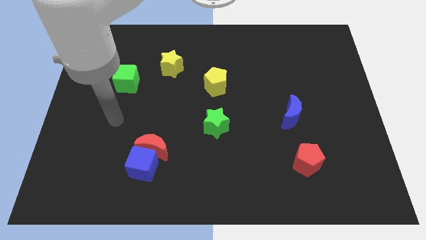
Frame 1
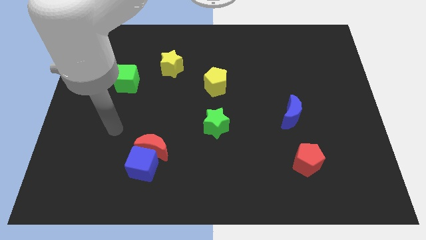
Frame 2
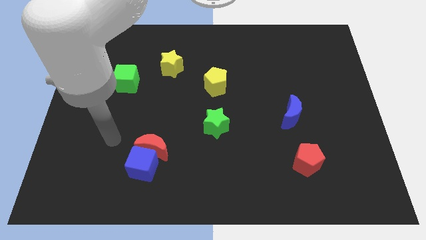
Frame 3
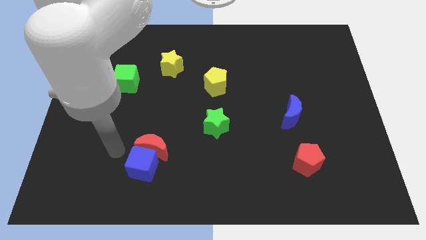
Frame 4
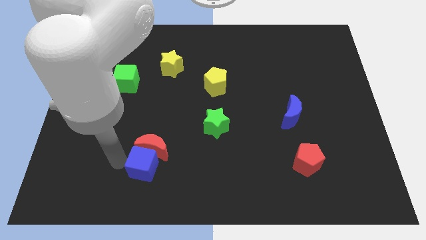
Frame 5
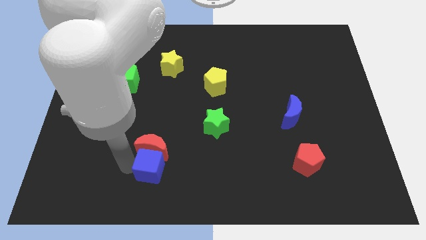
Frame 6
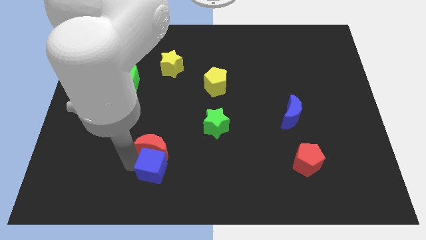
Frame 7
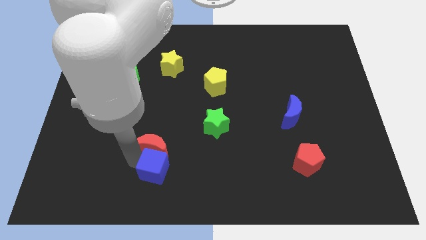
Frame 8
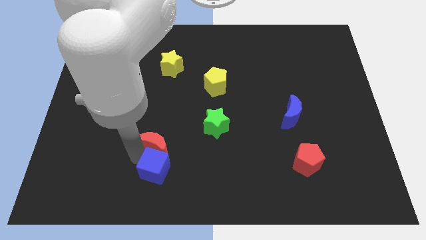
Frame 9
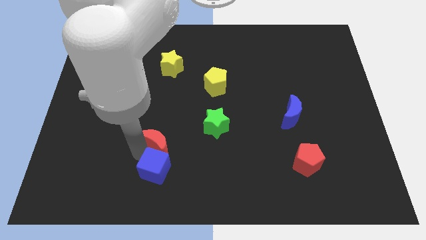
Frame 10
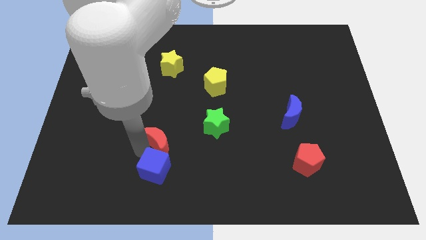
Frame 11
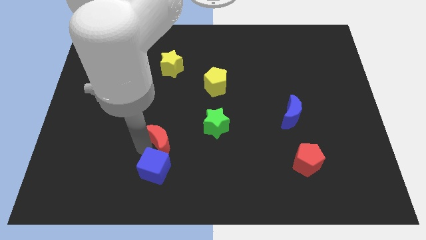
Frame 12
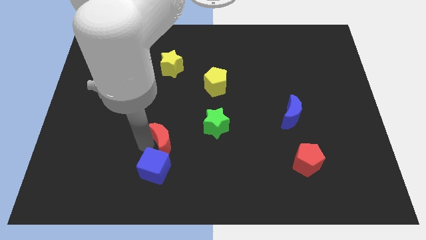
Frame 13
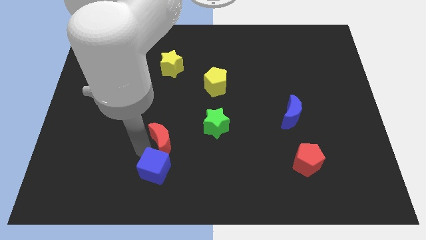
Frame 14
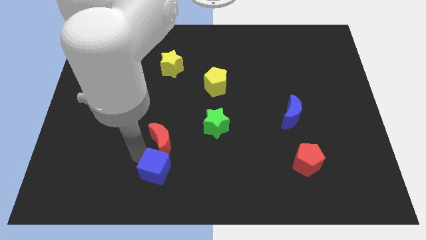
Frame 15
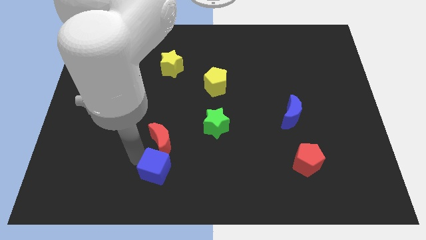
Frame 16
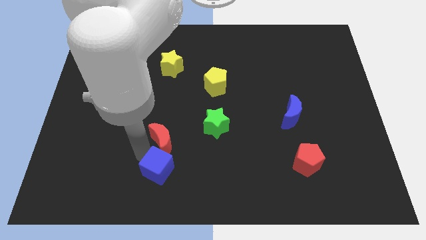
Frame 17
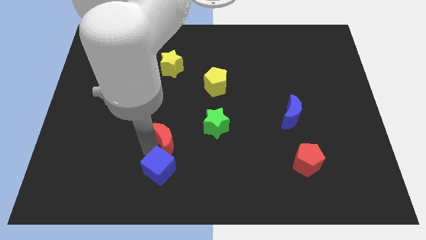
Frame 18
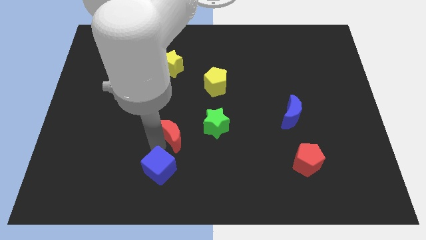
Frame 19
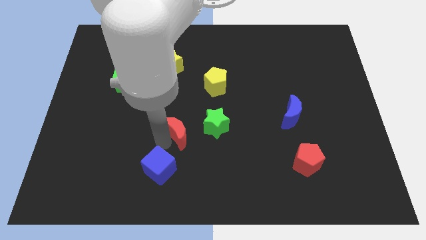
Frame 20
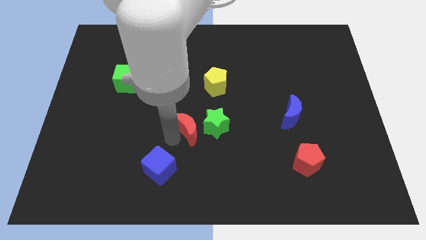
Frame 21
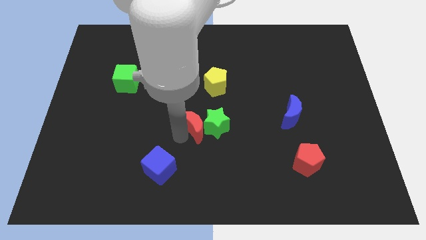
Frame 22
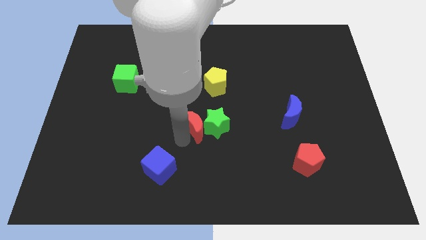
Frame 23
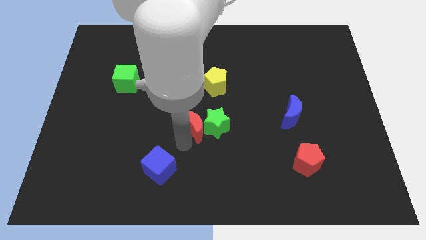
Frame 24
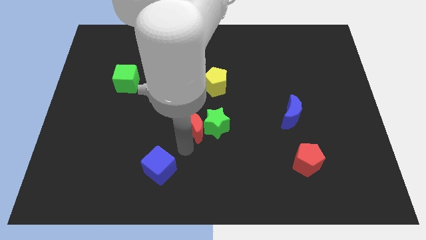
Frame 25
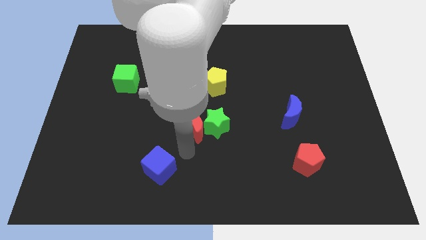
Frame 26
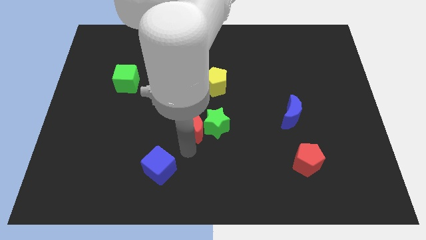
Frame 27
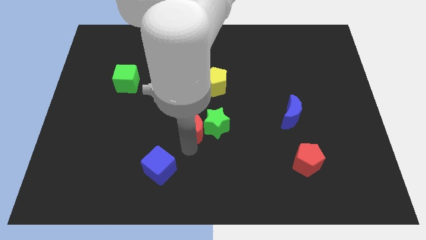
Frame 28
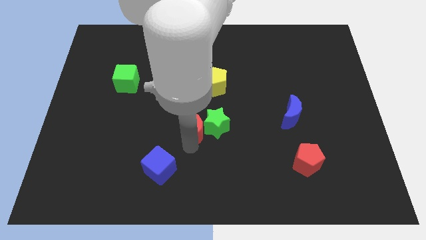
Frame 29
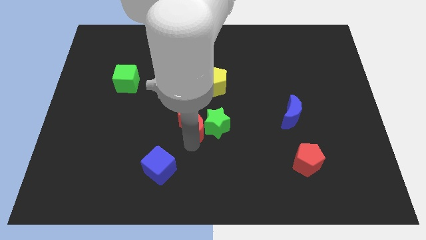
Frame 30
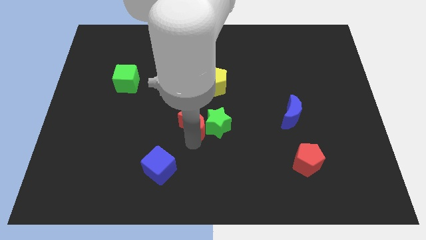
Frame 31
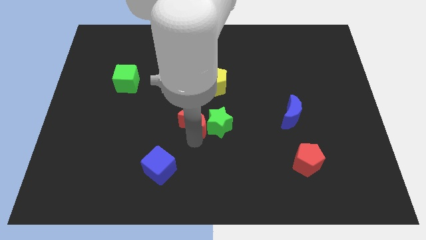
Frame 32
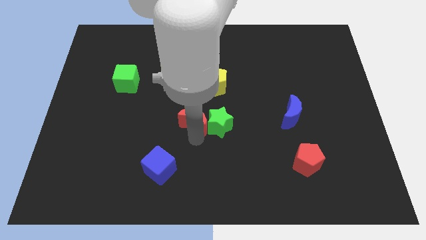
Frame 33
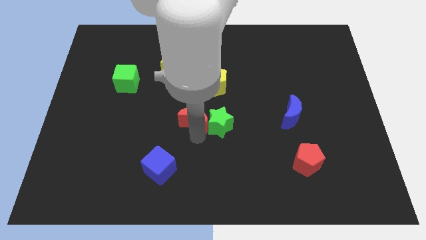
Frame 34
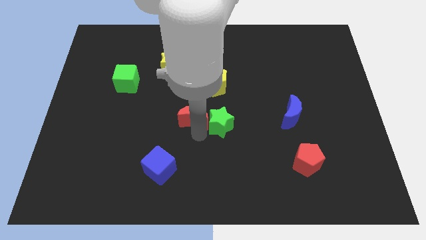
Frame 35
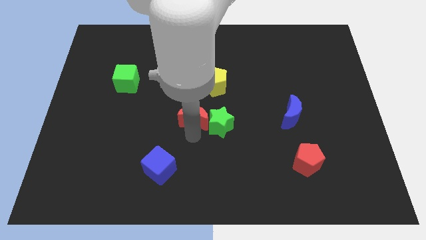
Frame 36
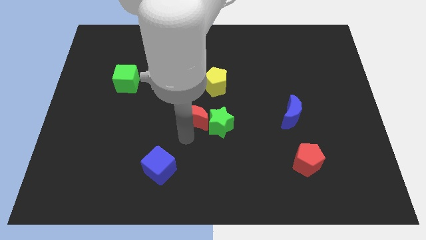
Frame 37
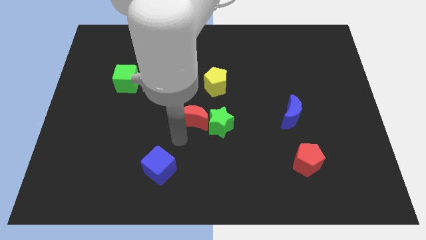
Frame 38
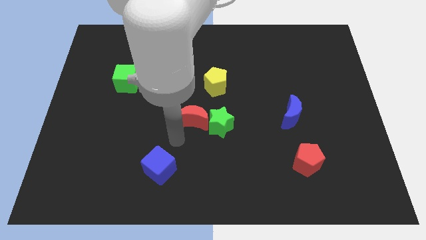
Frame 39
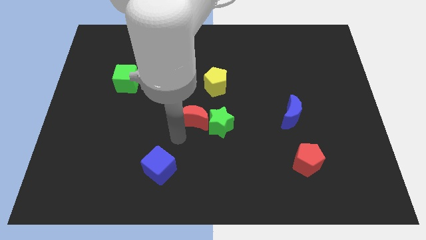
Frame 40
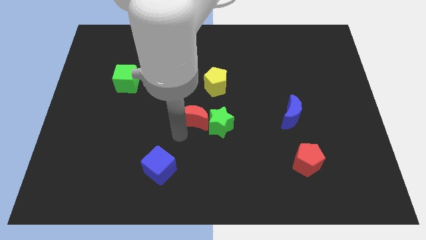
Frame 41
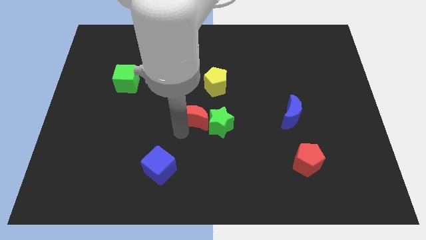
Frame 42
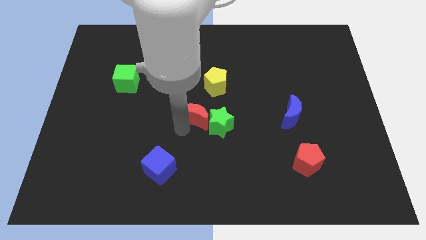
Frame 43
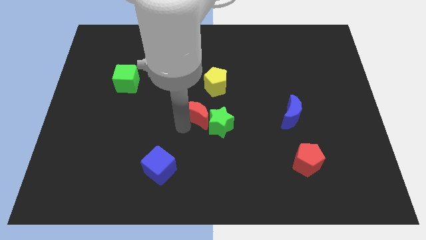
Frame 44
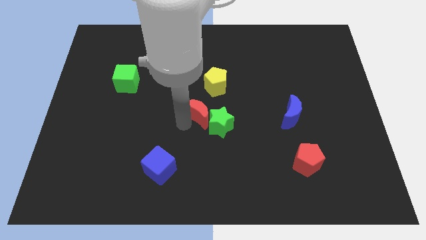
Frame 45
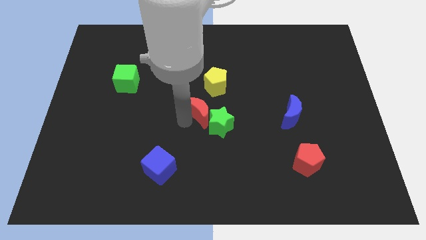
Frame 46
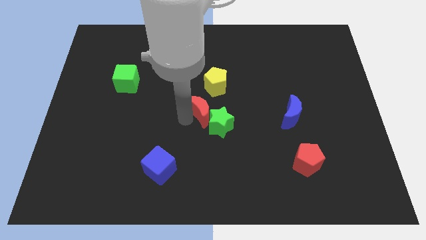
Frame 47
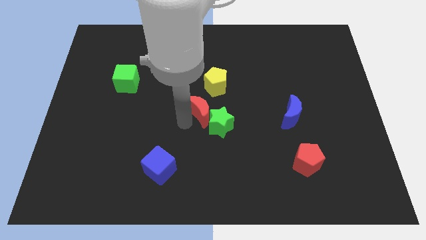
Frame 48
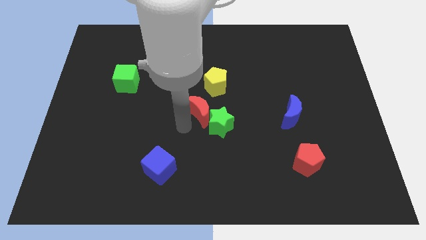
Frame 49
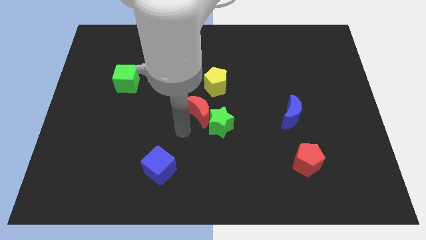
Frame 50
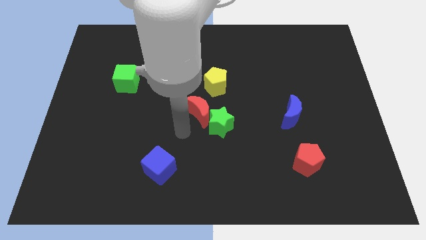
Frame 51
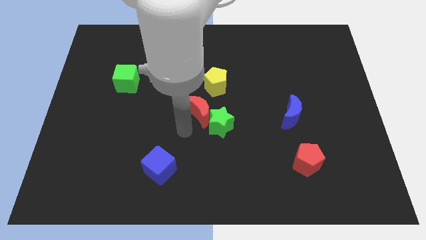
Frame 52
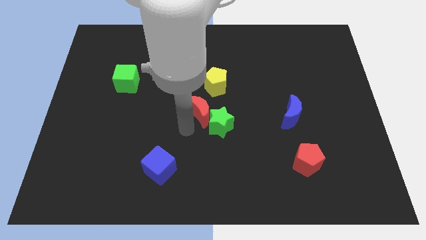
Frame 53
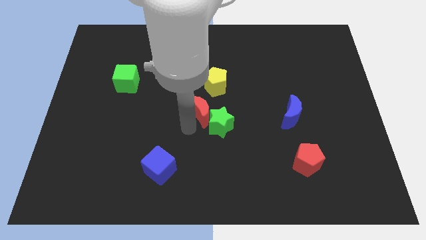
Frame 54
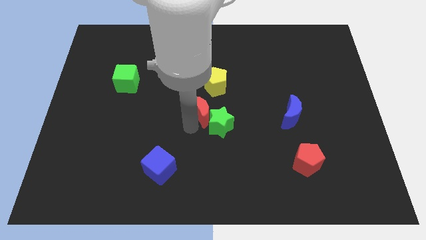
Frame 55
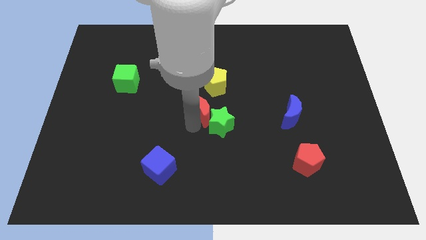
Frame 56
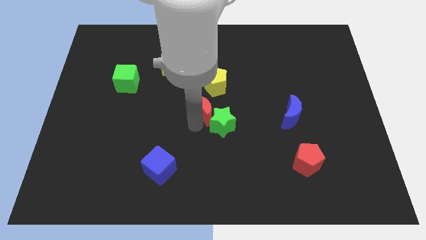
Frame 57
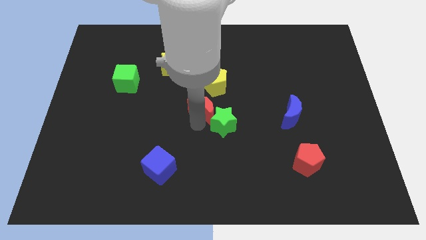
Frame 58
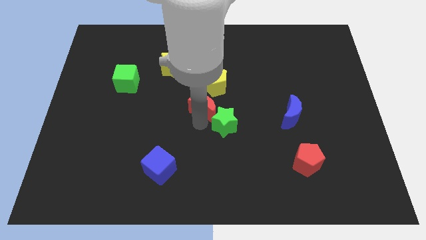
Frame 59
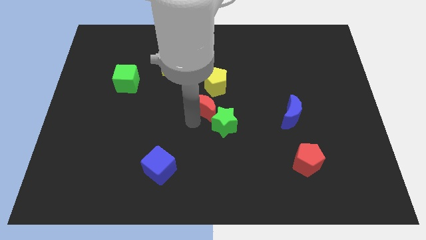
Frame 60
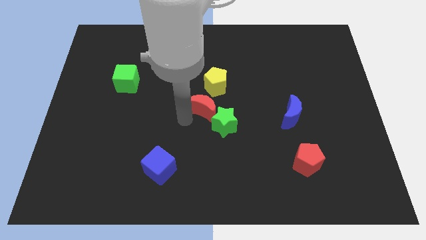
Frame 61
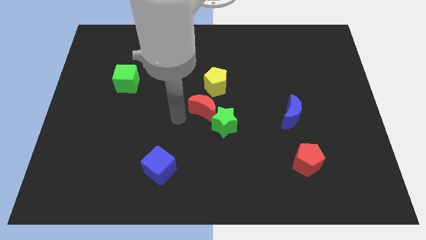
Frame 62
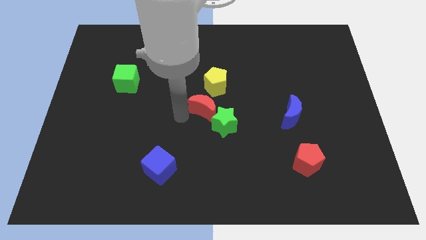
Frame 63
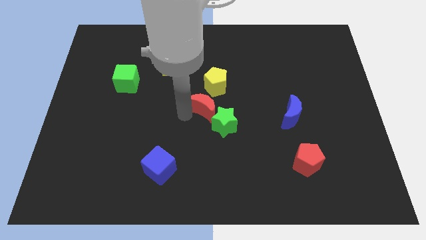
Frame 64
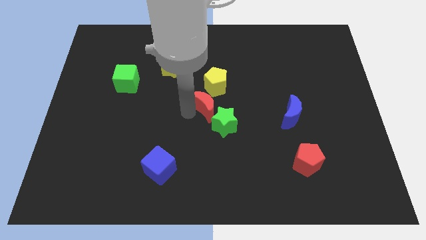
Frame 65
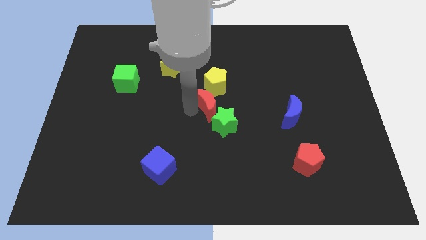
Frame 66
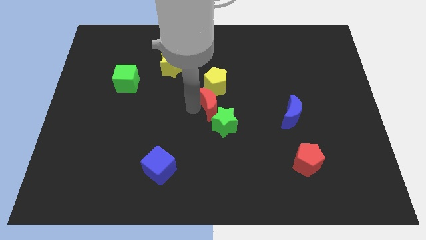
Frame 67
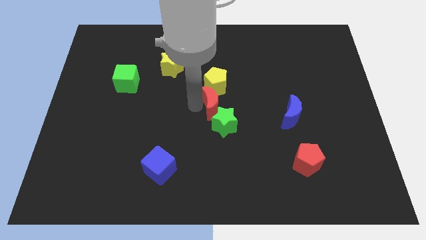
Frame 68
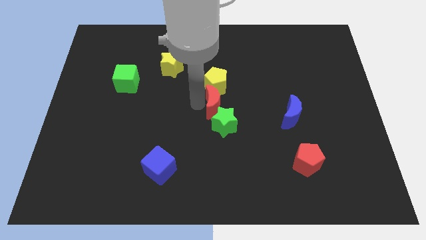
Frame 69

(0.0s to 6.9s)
slide the red moon to the bottom right side of the yellow pentagon
